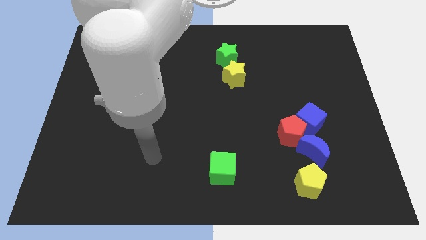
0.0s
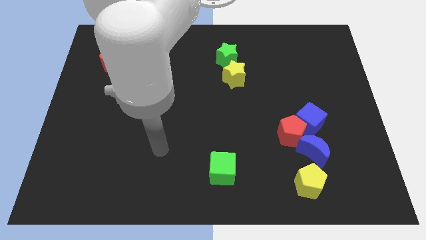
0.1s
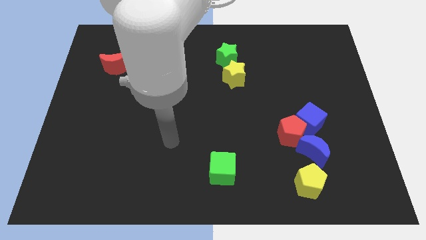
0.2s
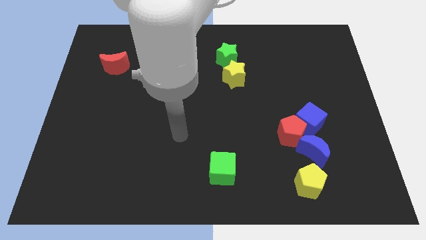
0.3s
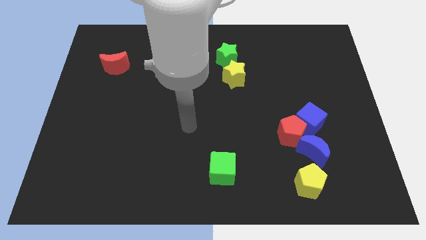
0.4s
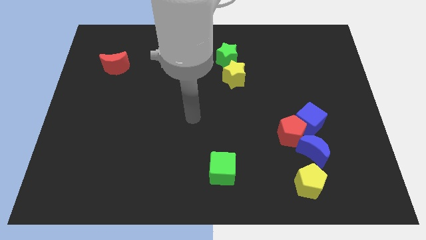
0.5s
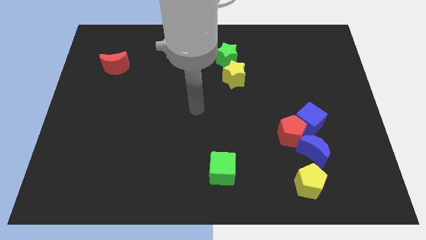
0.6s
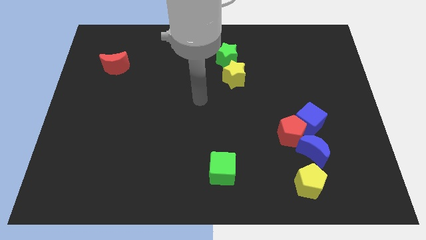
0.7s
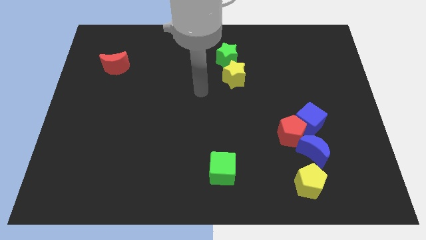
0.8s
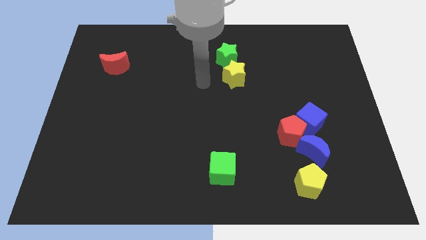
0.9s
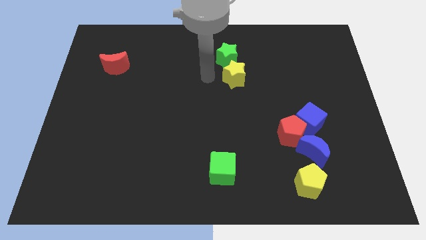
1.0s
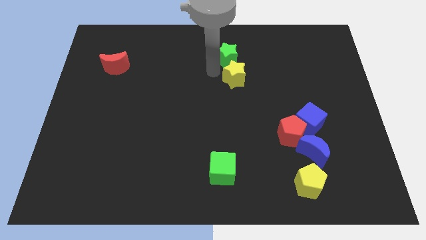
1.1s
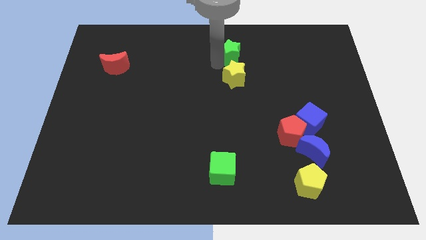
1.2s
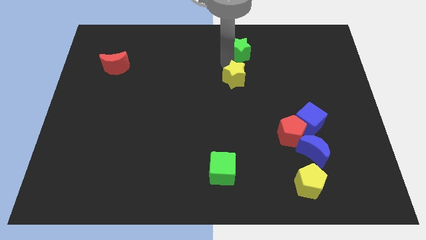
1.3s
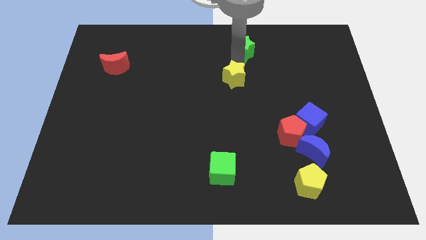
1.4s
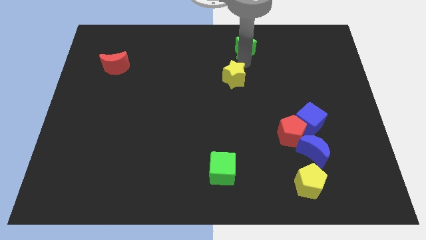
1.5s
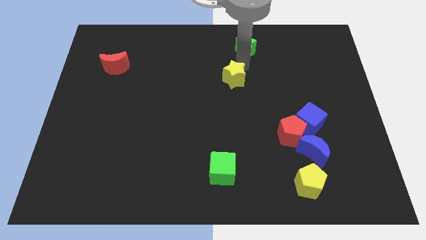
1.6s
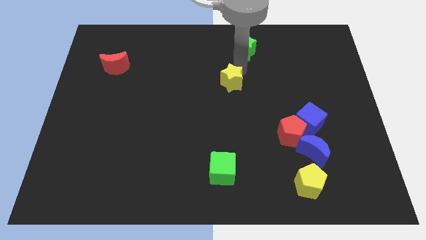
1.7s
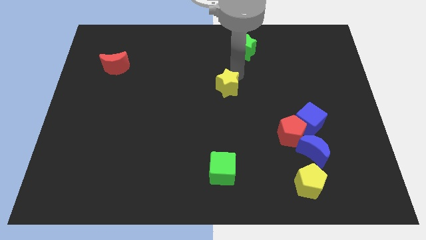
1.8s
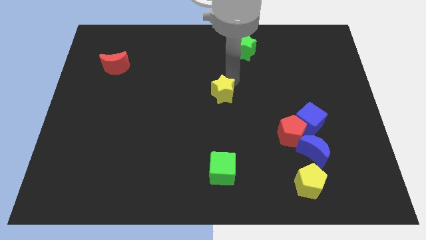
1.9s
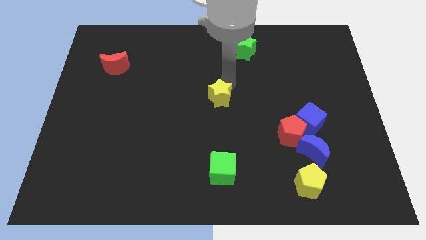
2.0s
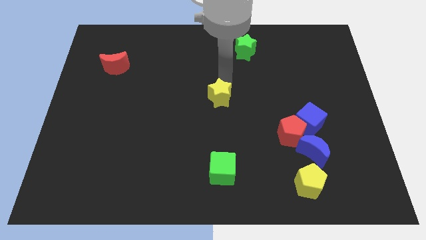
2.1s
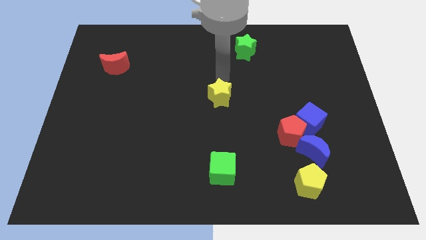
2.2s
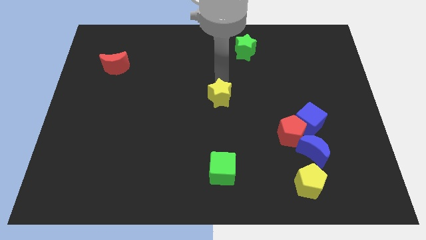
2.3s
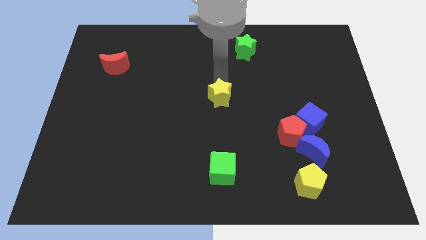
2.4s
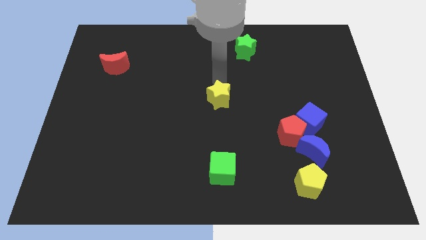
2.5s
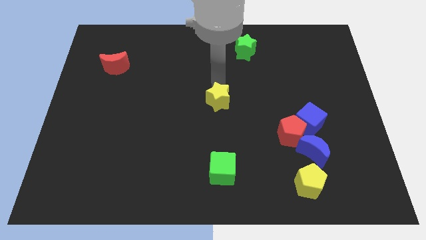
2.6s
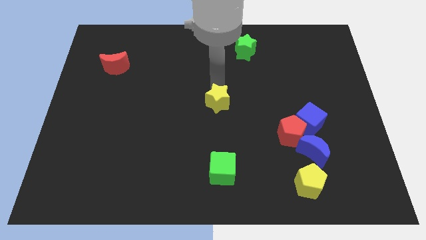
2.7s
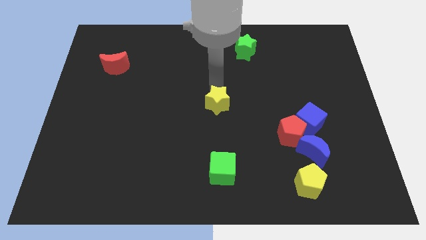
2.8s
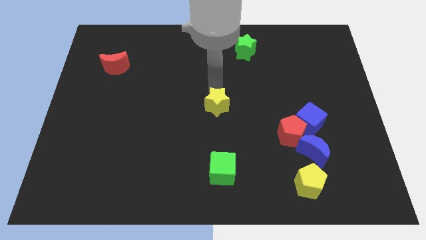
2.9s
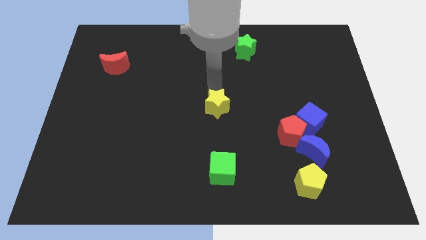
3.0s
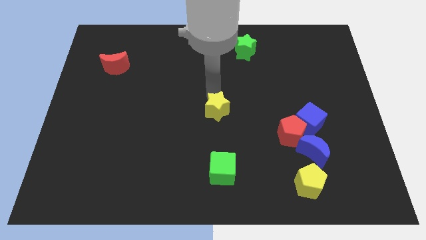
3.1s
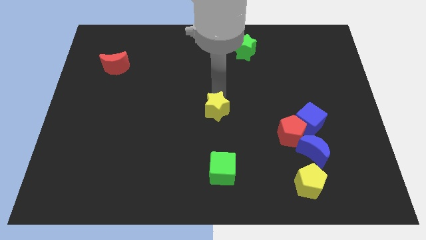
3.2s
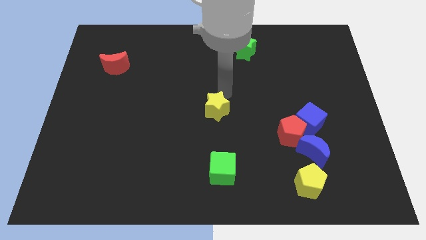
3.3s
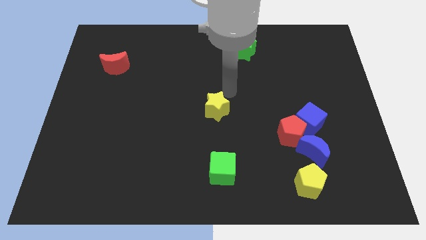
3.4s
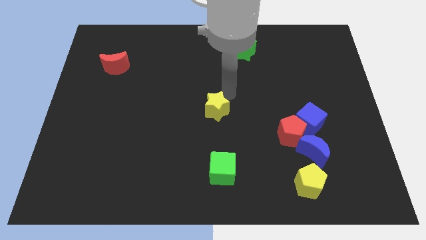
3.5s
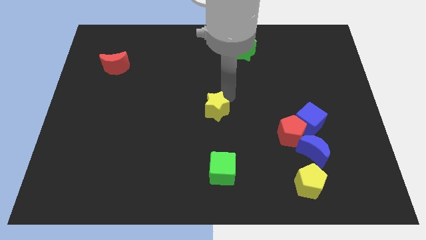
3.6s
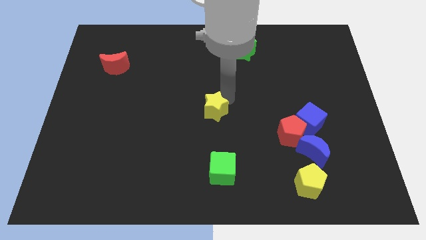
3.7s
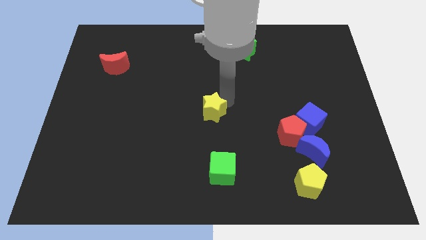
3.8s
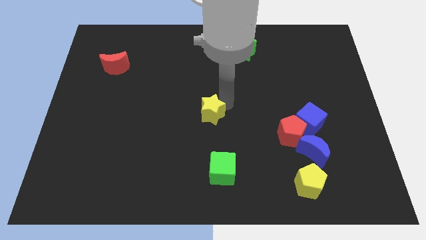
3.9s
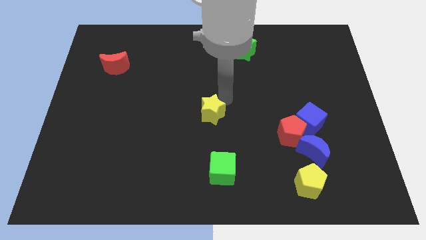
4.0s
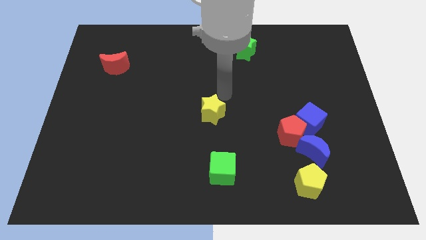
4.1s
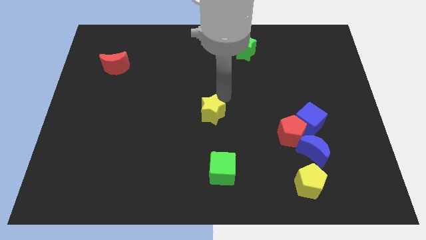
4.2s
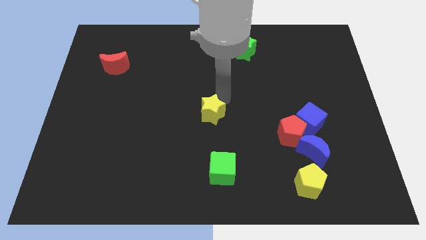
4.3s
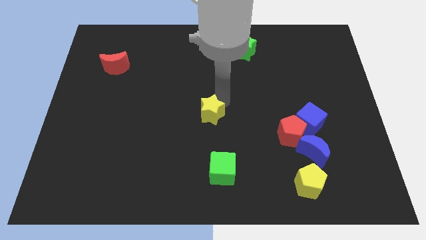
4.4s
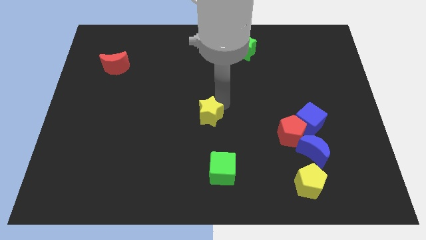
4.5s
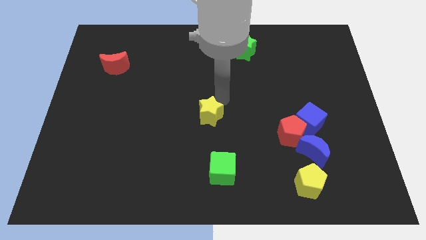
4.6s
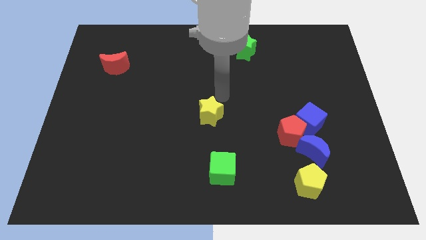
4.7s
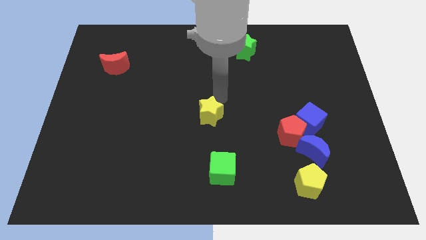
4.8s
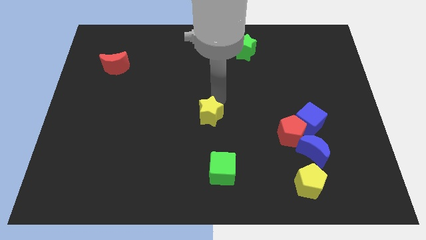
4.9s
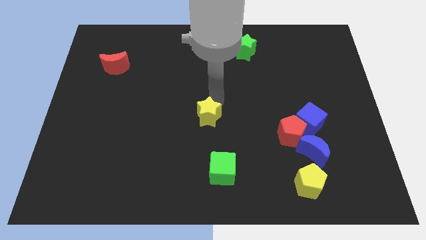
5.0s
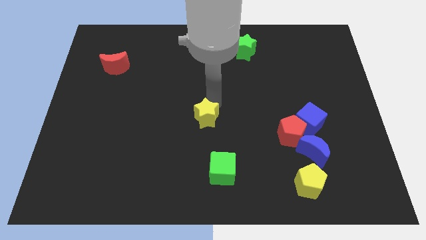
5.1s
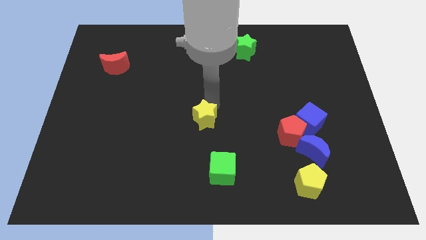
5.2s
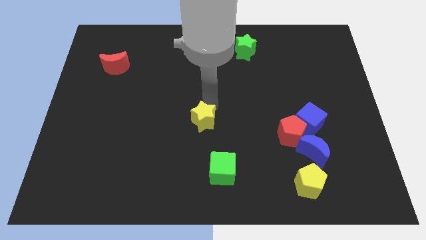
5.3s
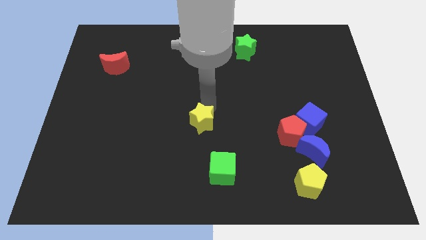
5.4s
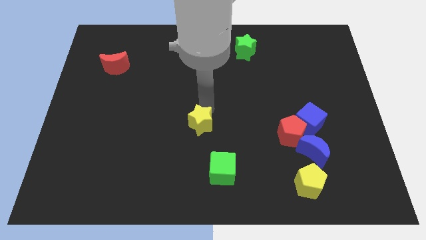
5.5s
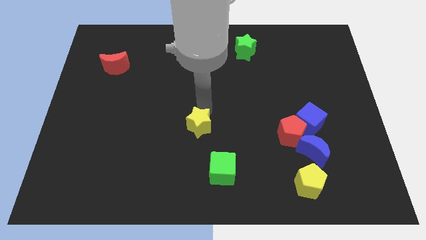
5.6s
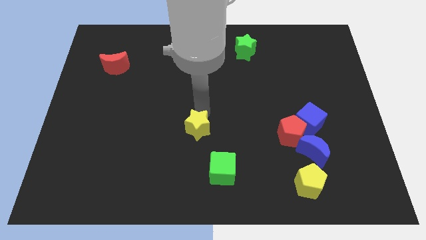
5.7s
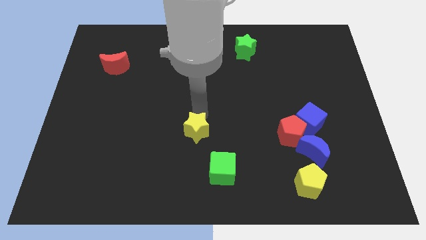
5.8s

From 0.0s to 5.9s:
slide the yellow star to the top left of the green cube

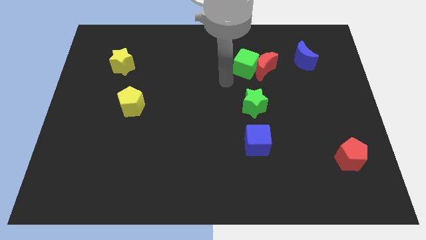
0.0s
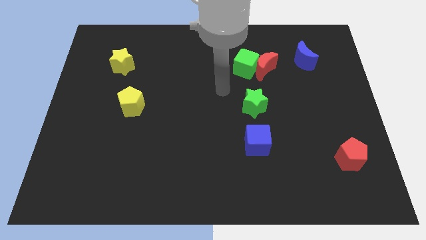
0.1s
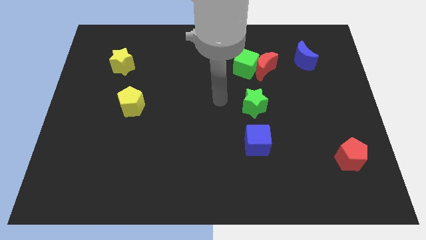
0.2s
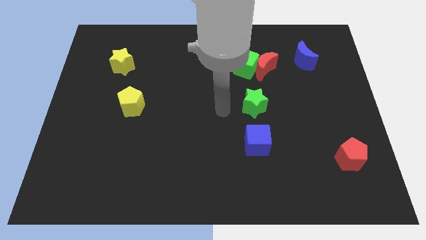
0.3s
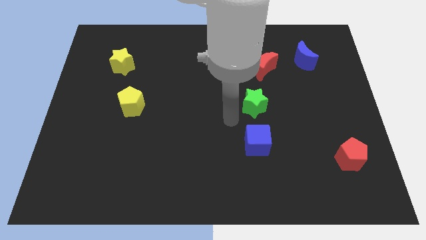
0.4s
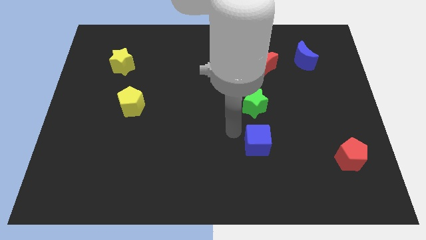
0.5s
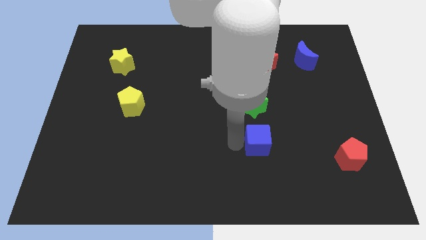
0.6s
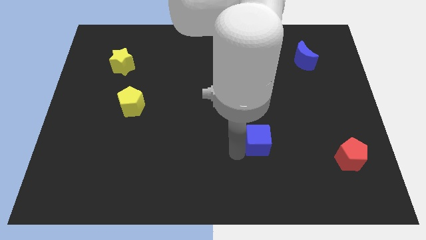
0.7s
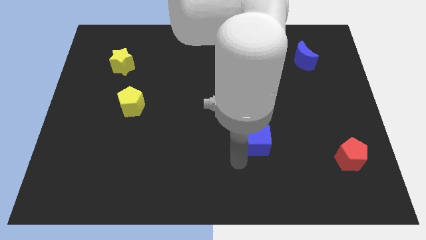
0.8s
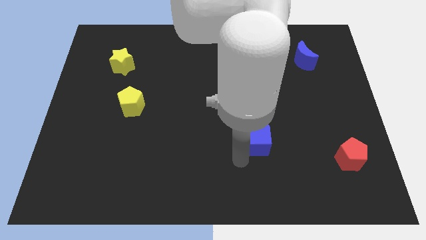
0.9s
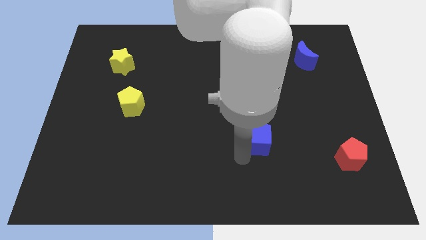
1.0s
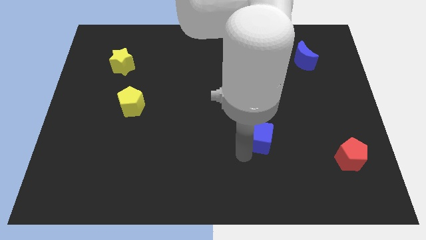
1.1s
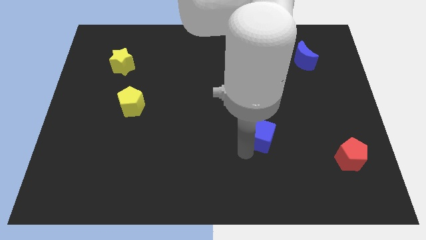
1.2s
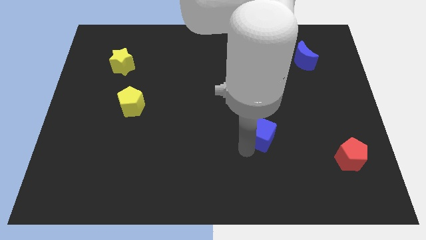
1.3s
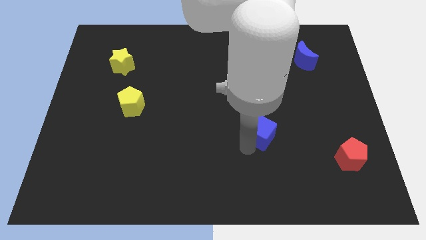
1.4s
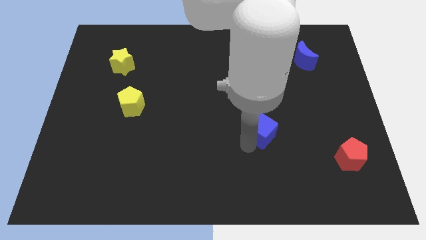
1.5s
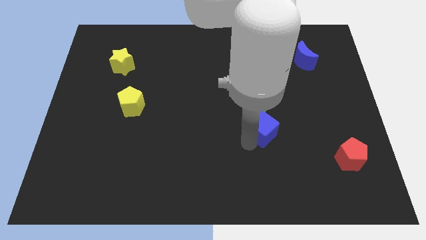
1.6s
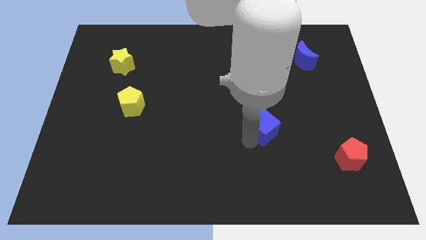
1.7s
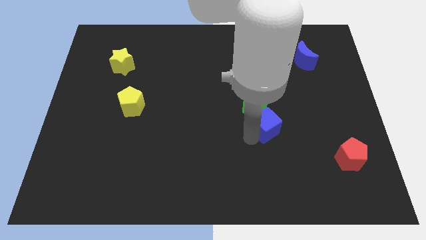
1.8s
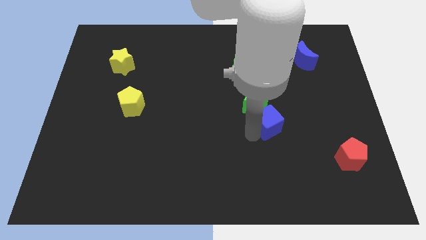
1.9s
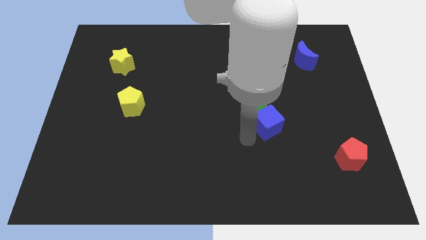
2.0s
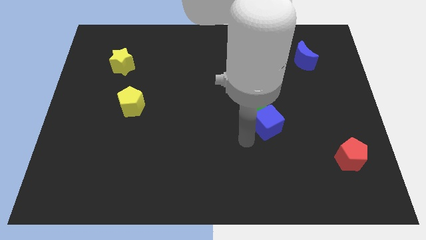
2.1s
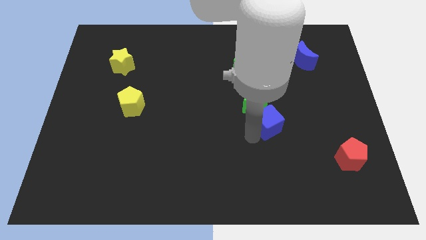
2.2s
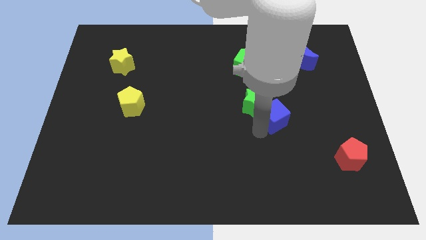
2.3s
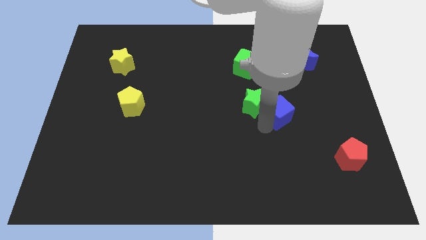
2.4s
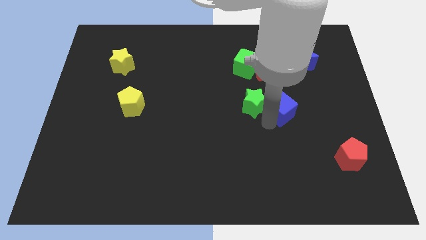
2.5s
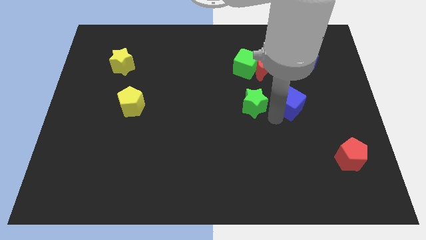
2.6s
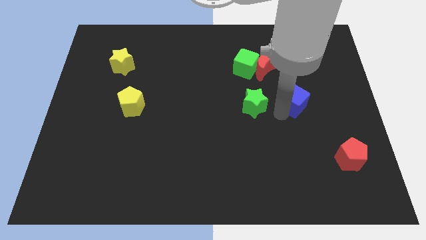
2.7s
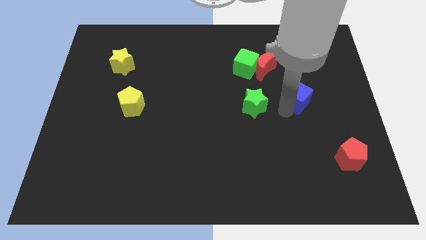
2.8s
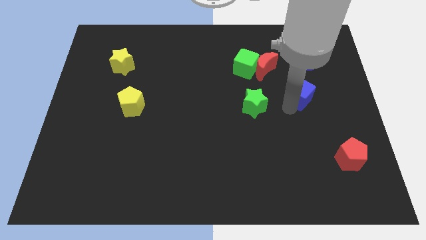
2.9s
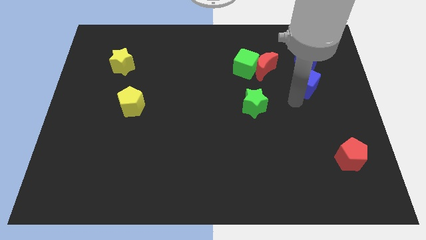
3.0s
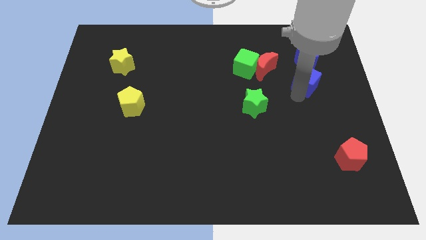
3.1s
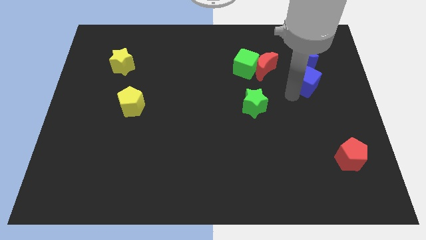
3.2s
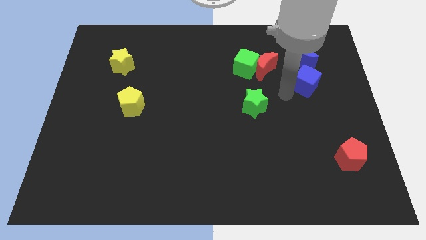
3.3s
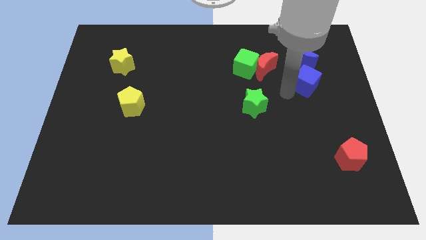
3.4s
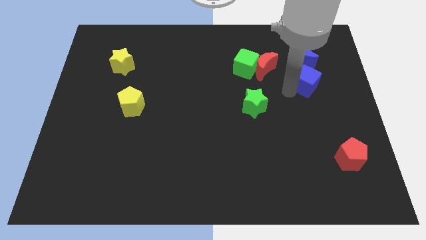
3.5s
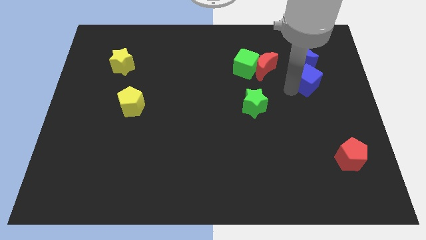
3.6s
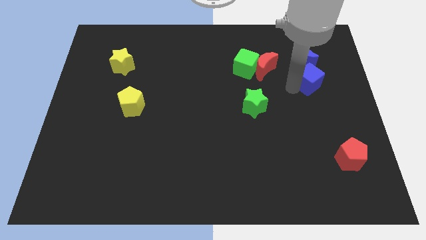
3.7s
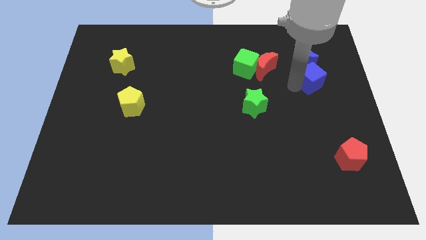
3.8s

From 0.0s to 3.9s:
put the blue cube to the bottom right of the blue moon
